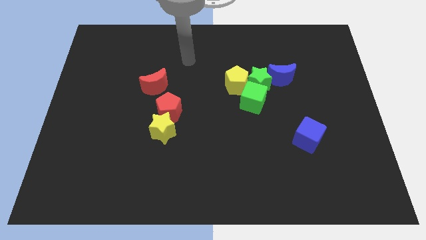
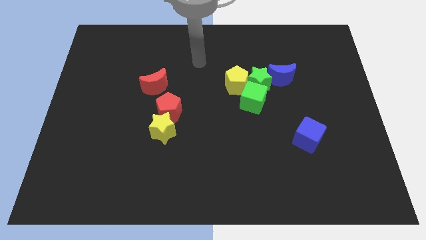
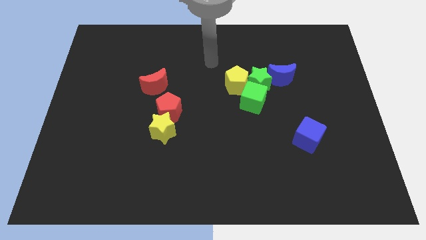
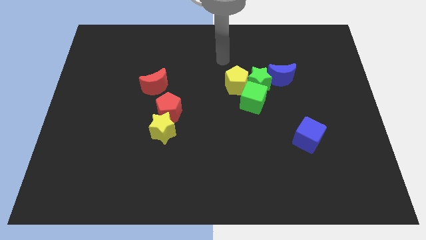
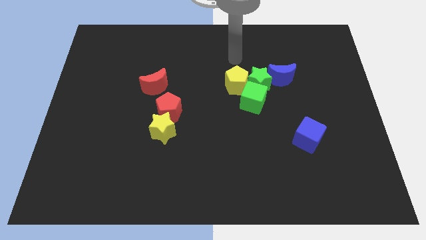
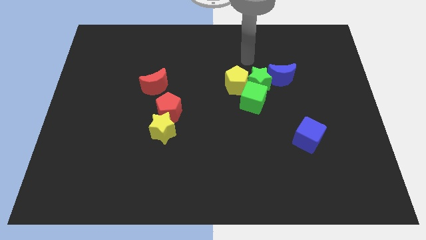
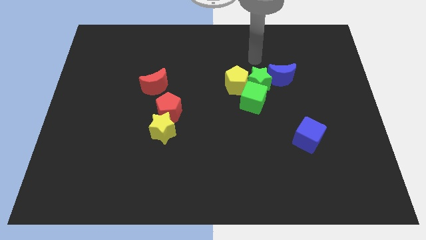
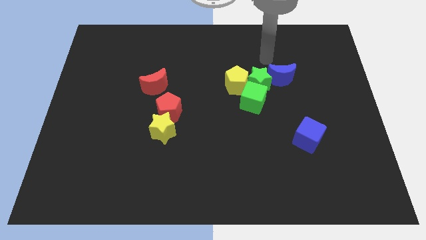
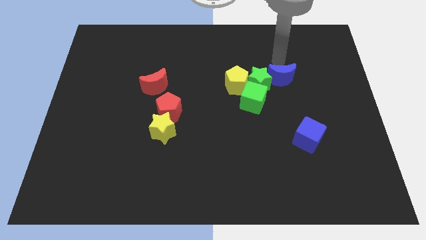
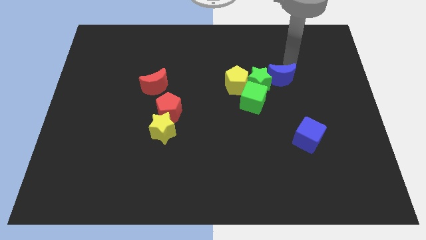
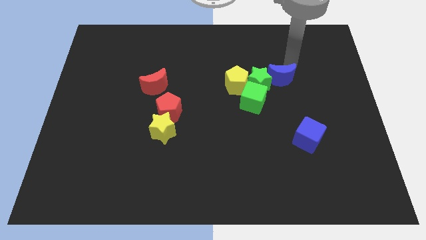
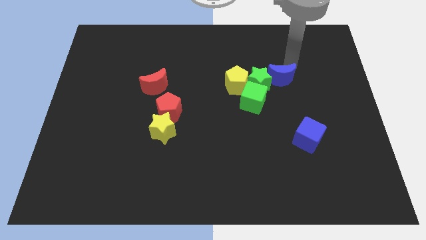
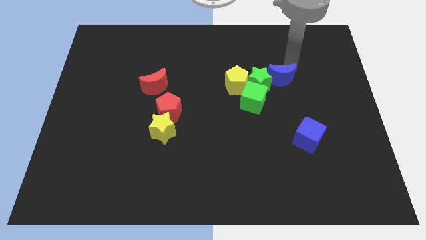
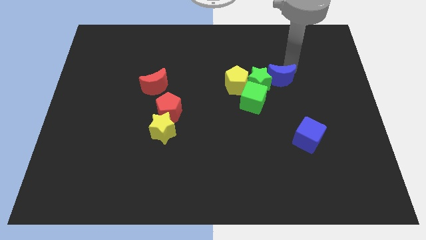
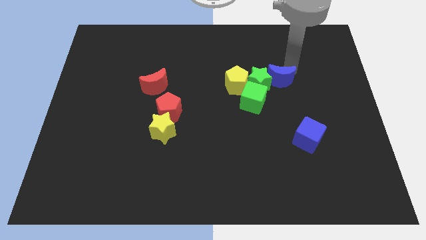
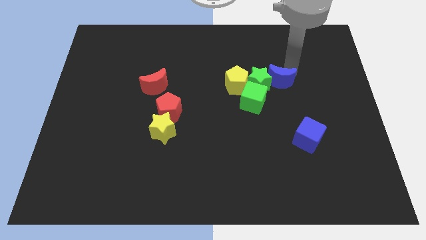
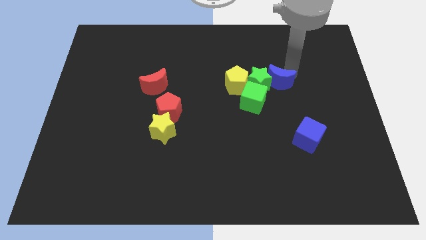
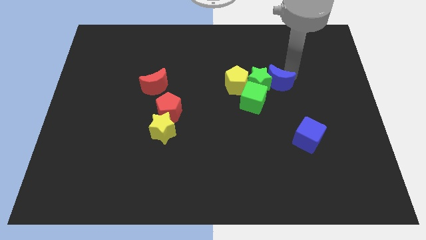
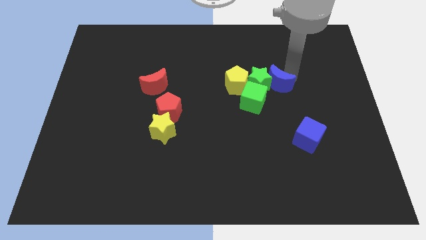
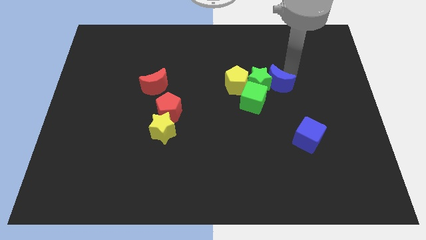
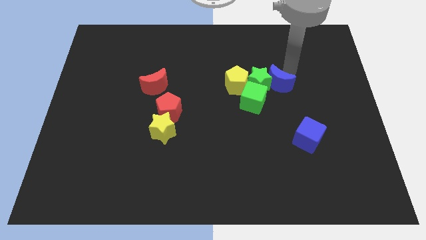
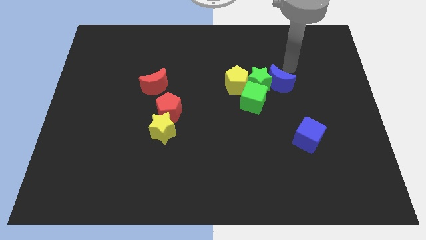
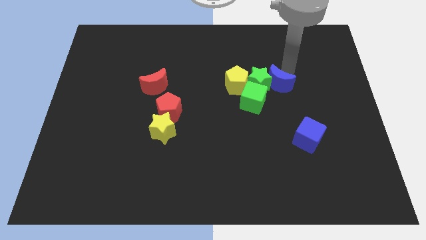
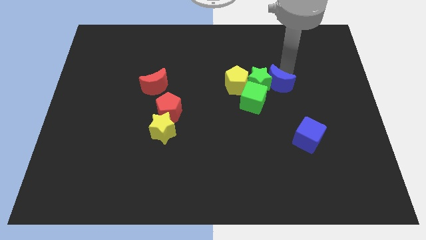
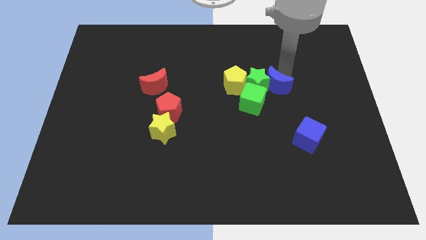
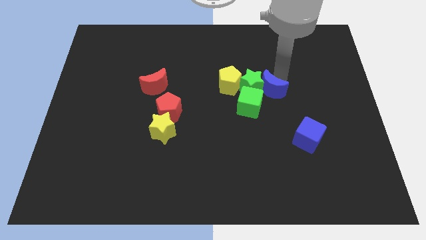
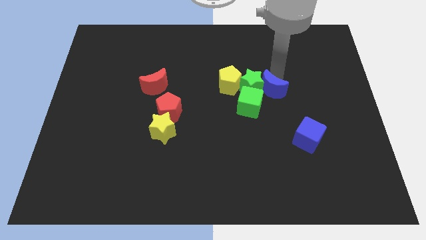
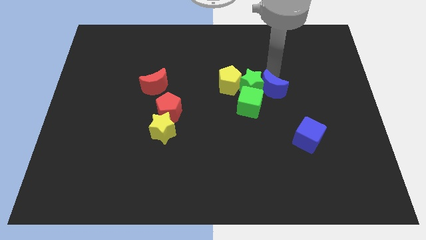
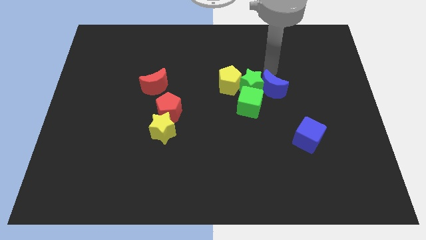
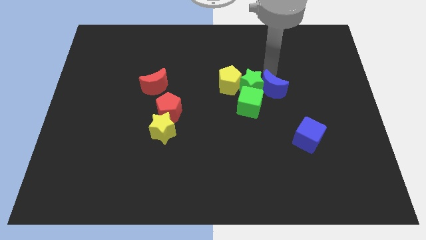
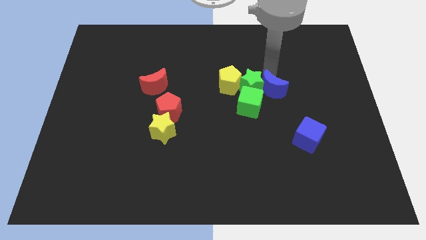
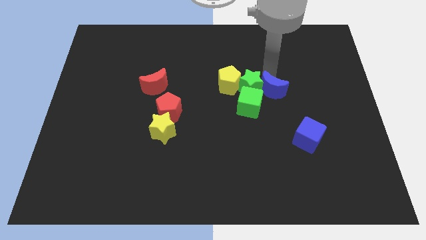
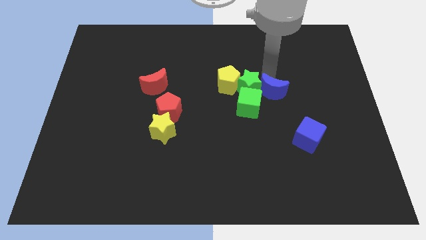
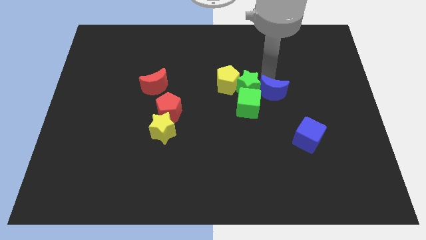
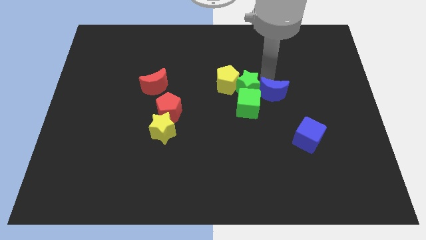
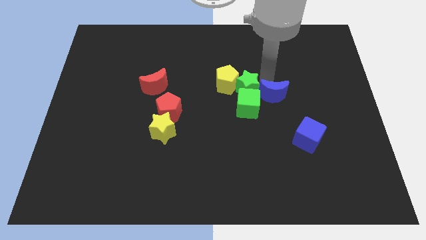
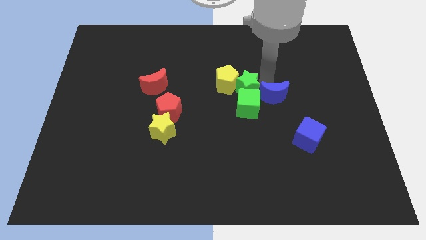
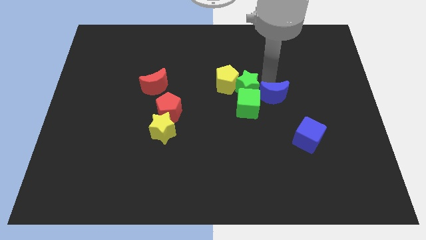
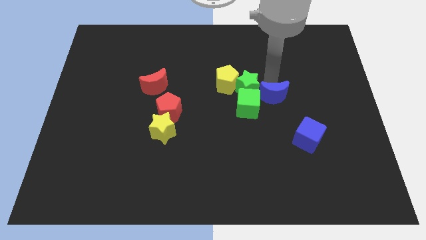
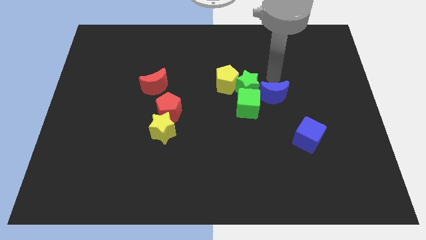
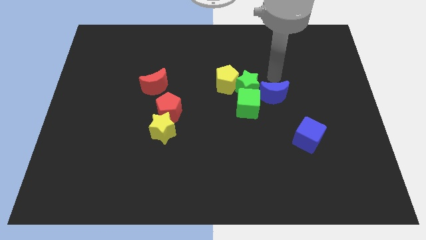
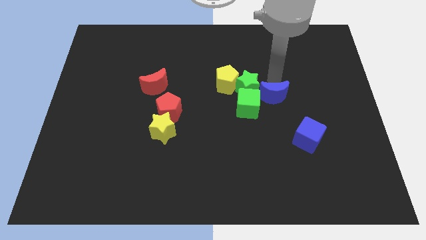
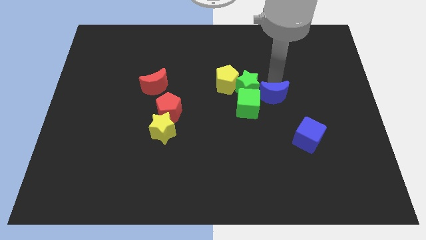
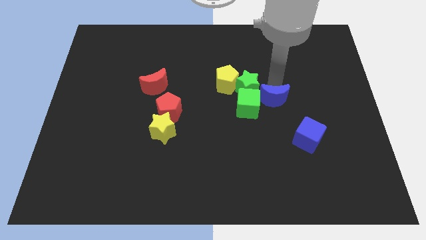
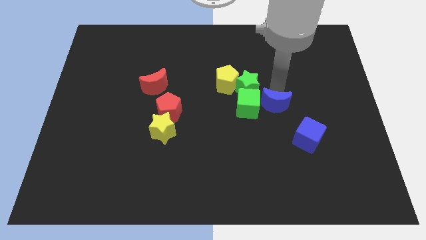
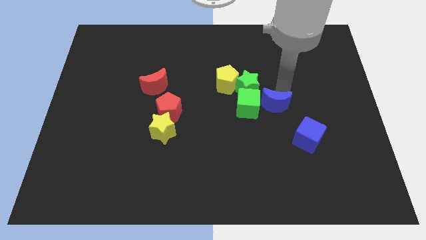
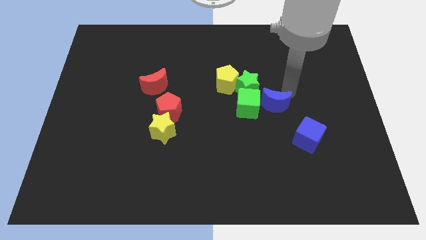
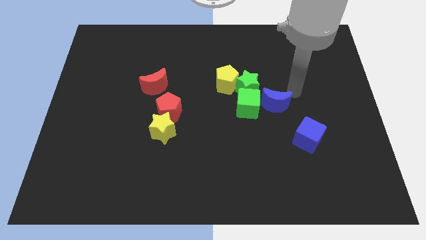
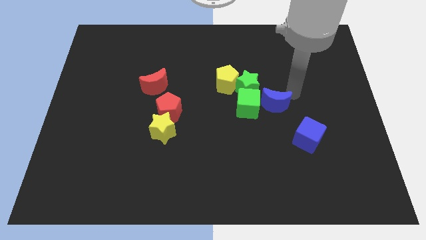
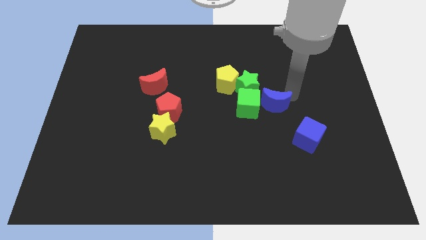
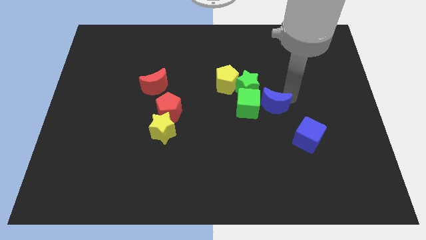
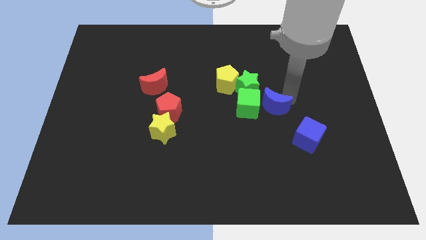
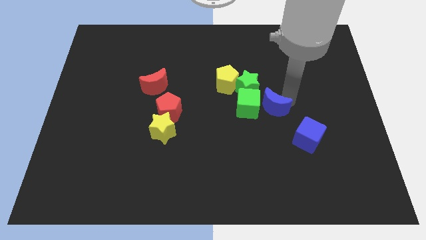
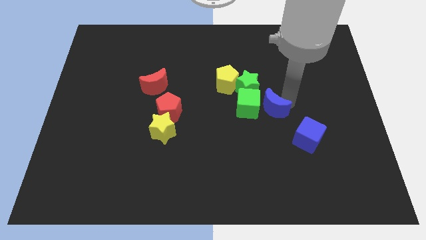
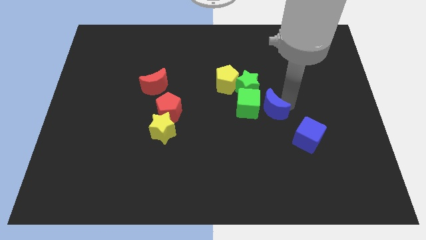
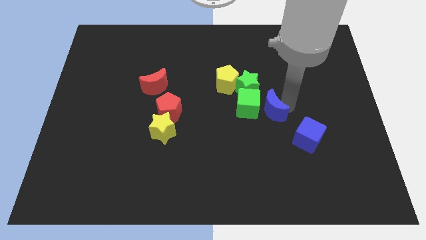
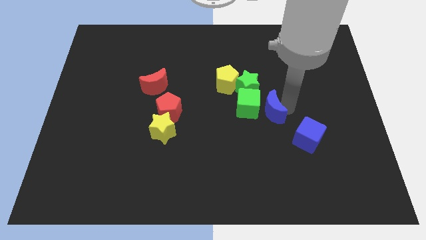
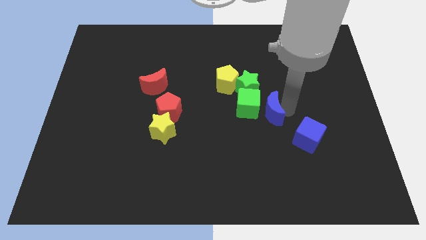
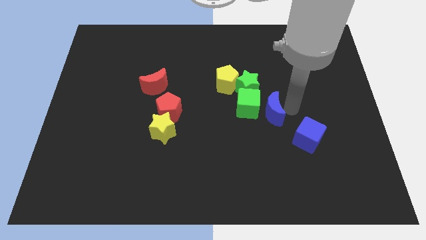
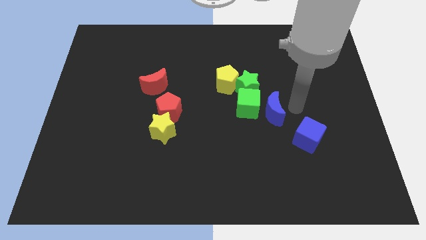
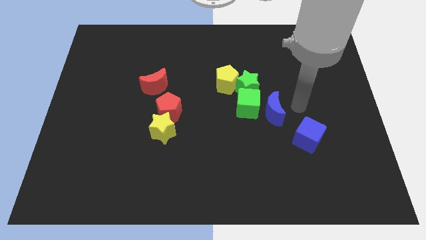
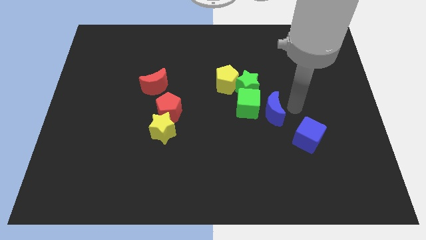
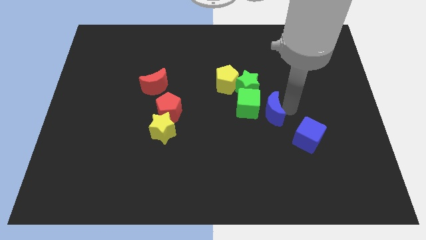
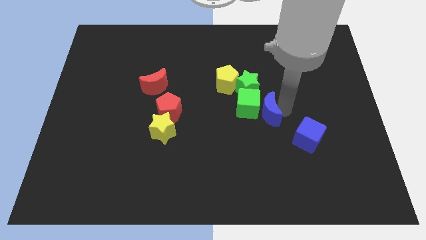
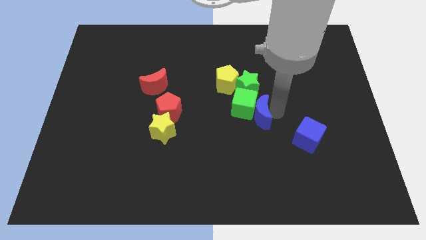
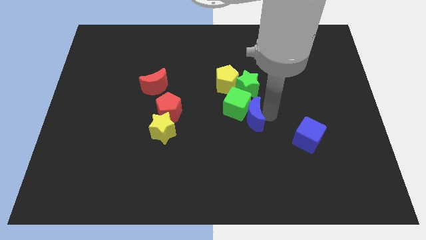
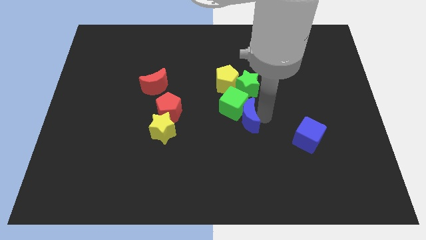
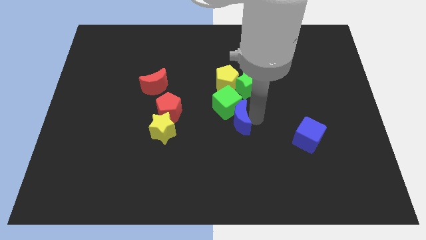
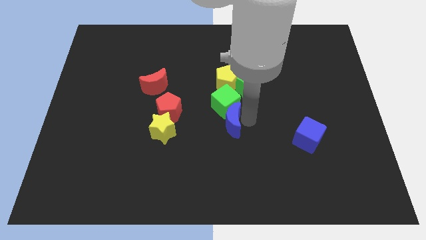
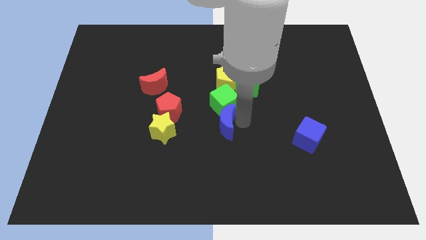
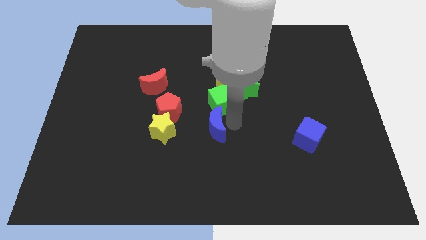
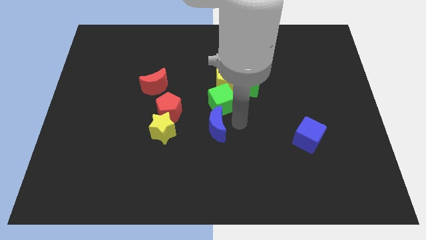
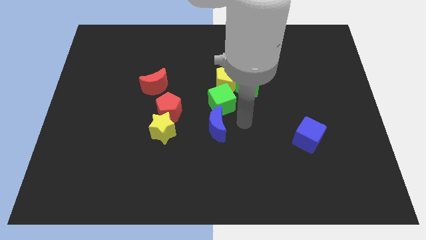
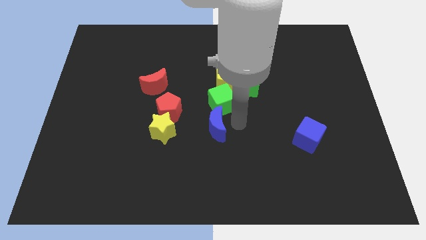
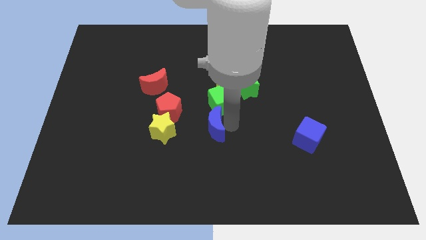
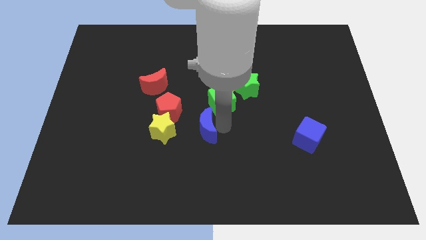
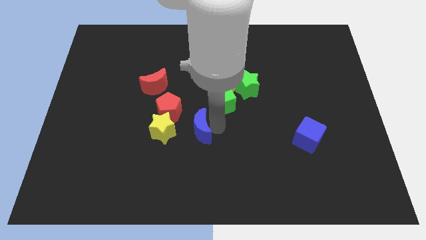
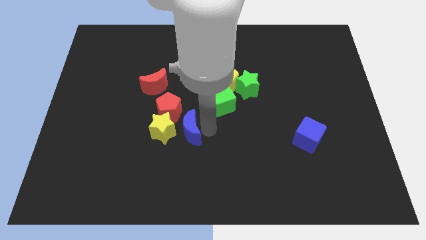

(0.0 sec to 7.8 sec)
move the blue moon towards the yellow star
